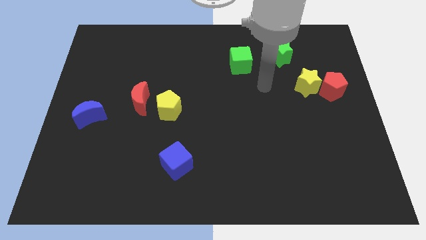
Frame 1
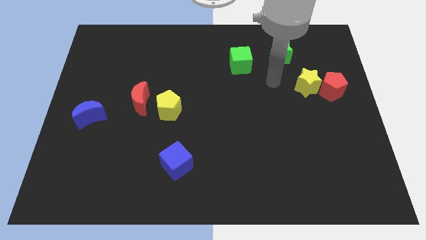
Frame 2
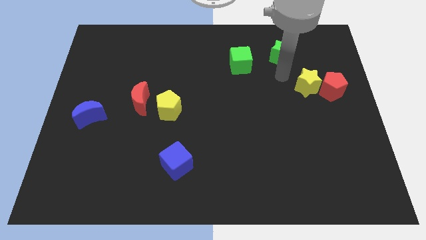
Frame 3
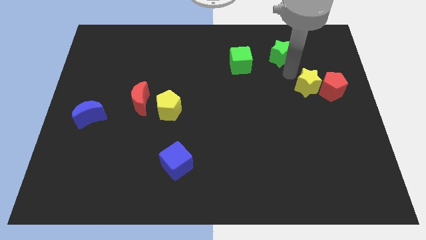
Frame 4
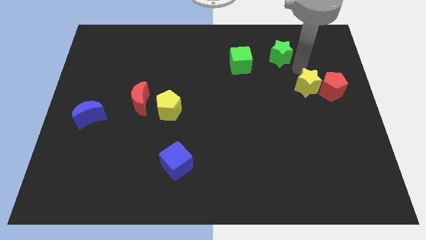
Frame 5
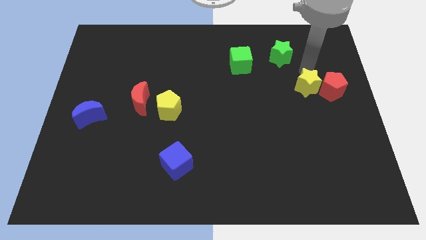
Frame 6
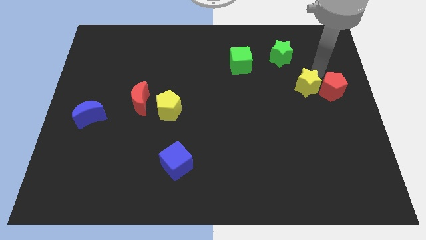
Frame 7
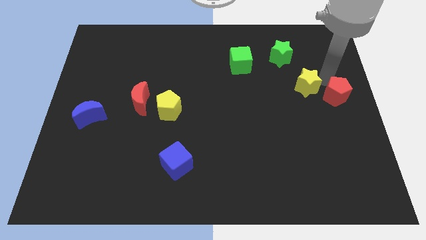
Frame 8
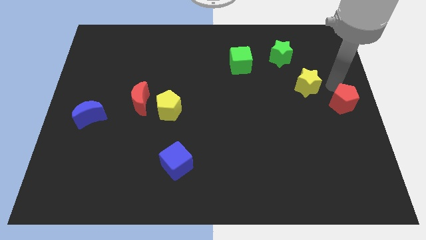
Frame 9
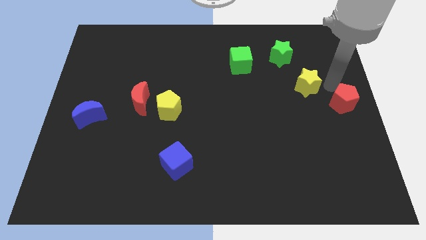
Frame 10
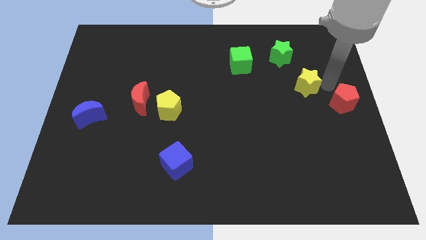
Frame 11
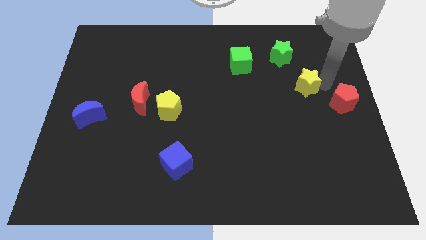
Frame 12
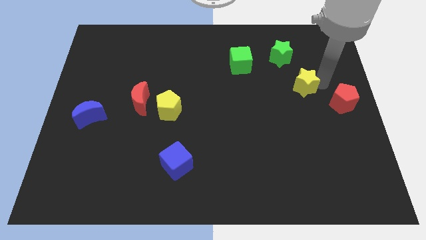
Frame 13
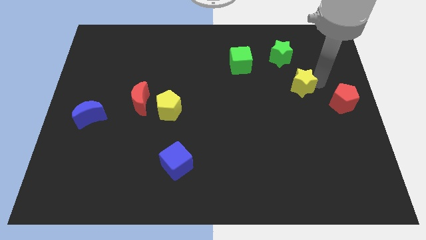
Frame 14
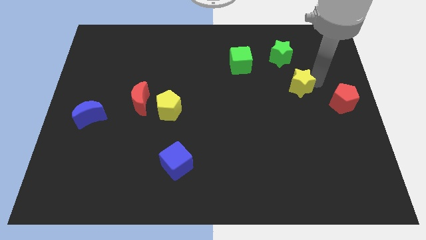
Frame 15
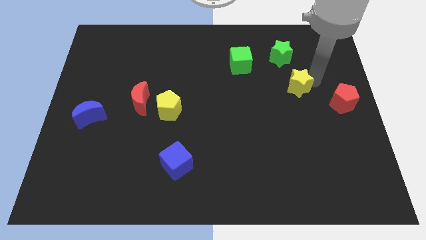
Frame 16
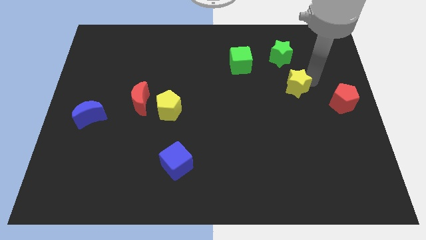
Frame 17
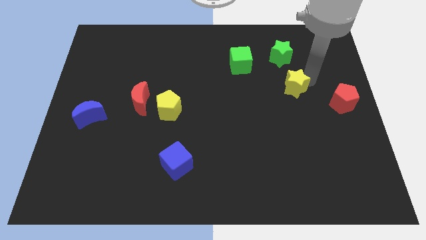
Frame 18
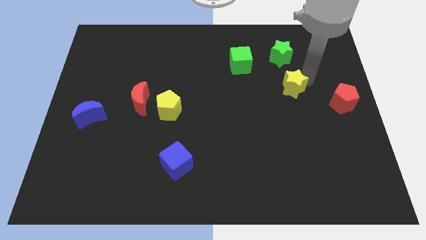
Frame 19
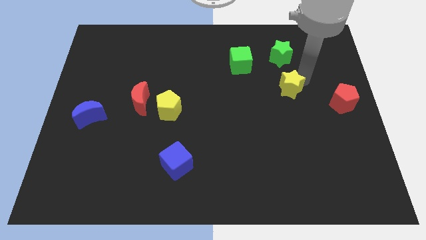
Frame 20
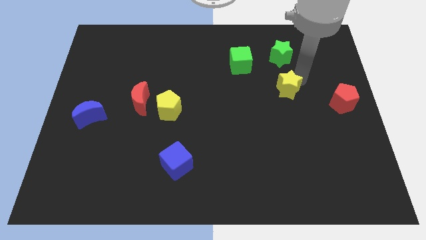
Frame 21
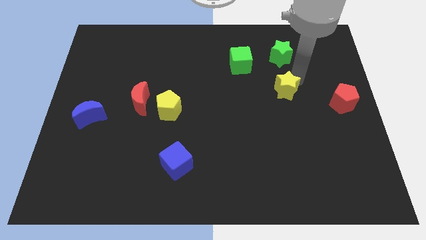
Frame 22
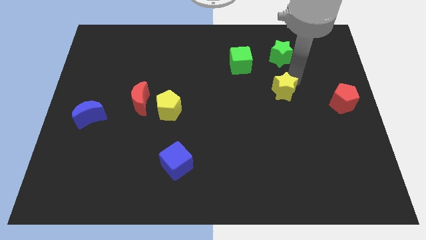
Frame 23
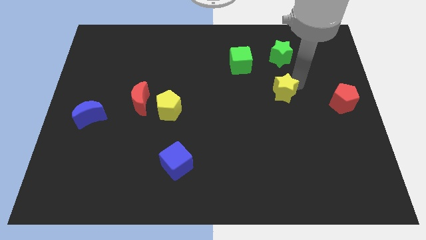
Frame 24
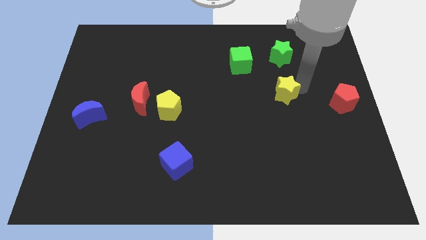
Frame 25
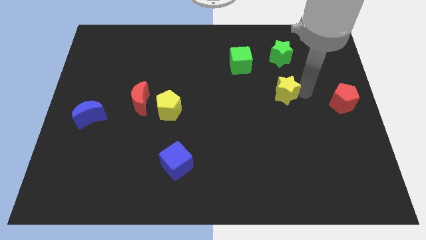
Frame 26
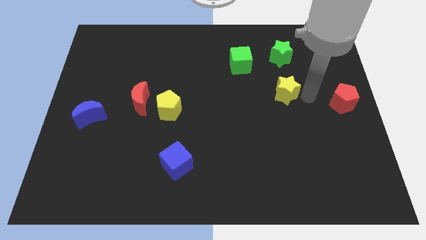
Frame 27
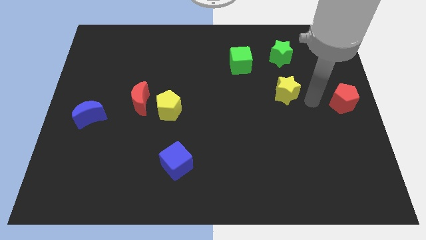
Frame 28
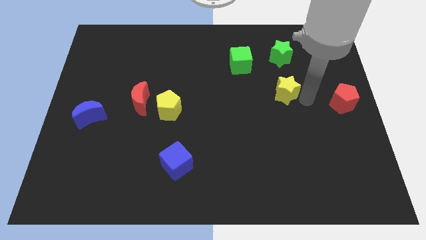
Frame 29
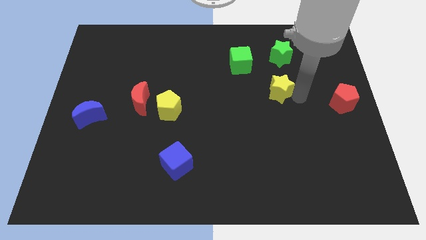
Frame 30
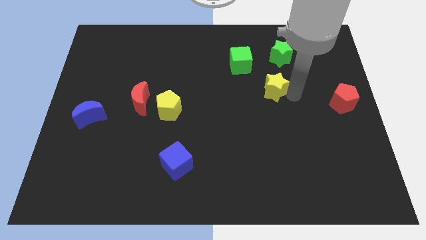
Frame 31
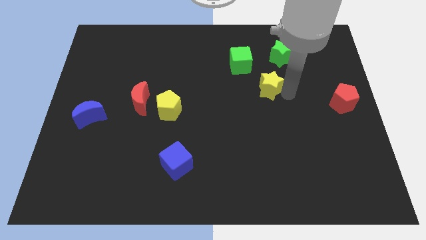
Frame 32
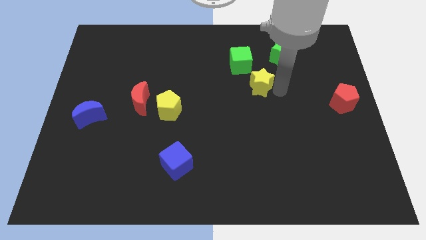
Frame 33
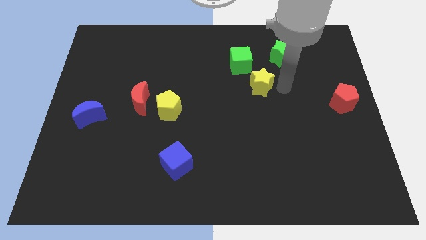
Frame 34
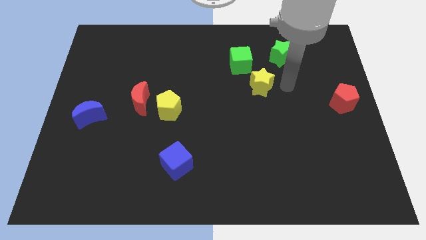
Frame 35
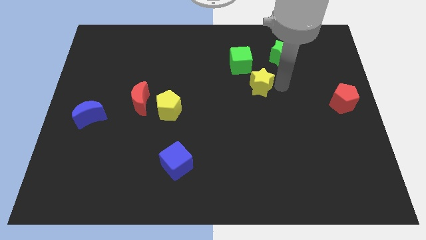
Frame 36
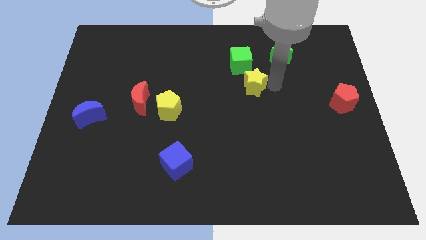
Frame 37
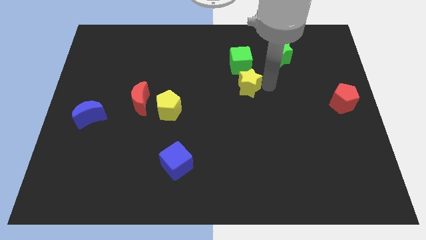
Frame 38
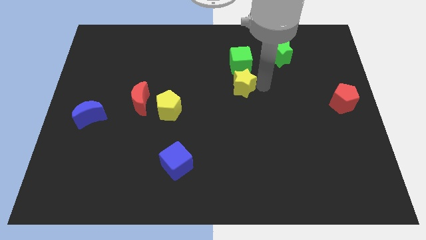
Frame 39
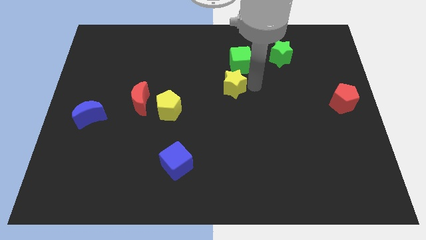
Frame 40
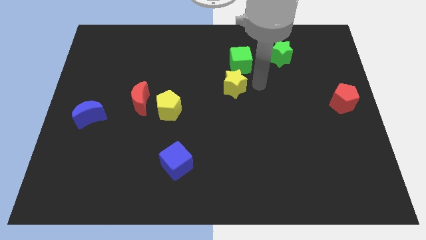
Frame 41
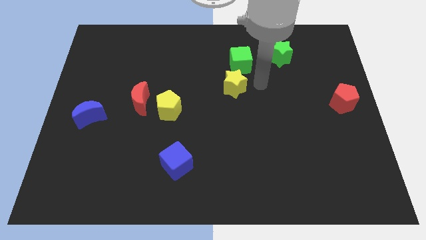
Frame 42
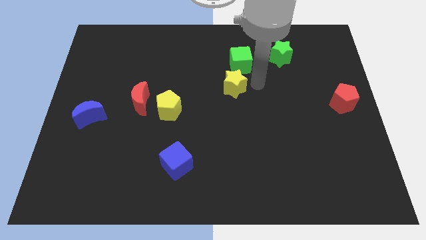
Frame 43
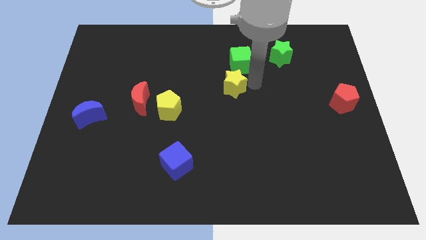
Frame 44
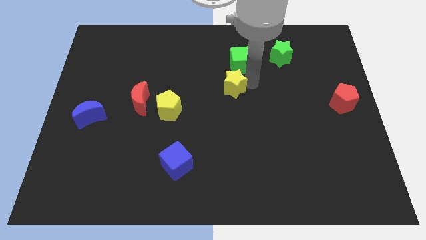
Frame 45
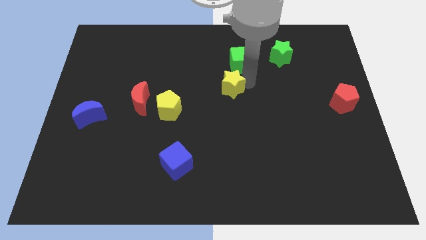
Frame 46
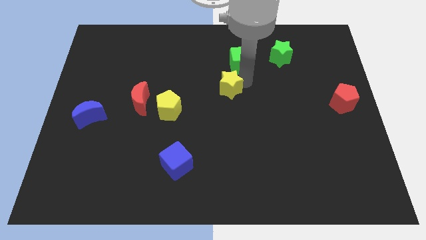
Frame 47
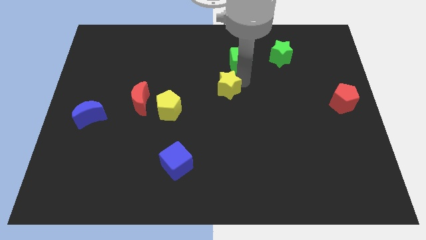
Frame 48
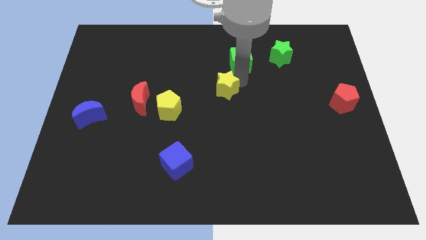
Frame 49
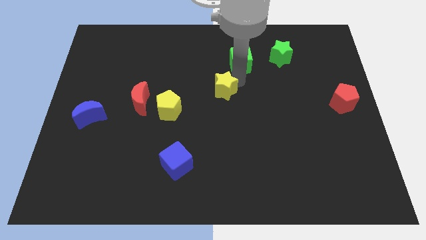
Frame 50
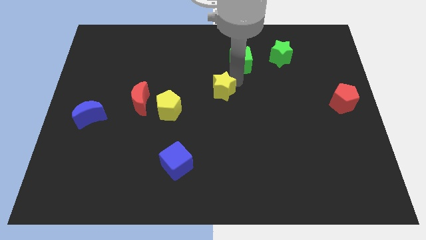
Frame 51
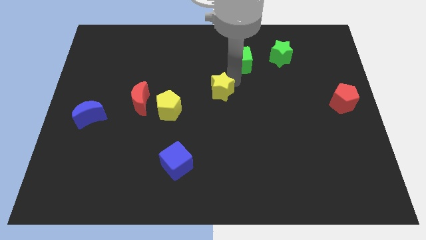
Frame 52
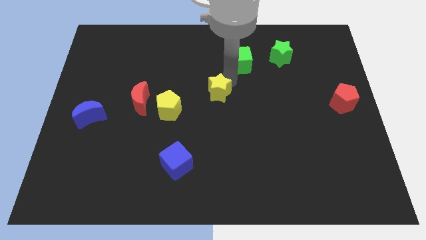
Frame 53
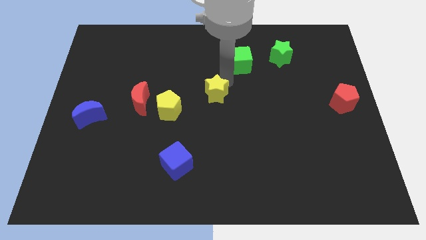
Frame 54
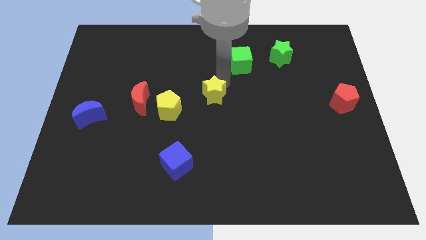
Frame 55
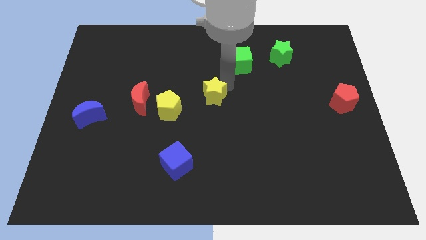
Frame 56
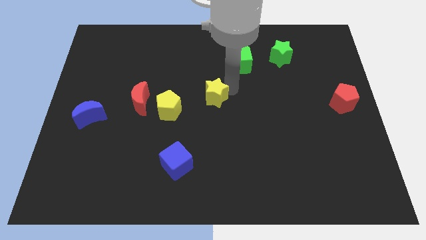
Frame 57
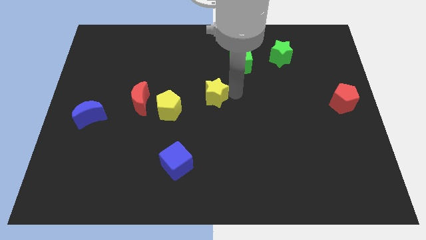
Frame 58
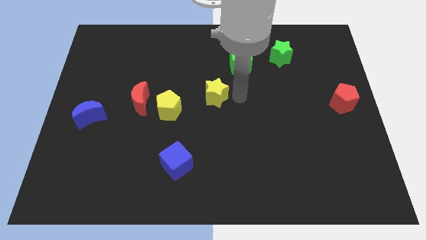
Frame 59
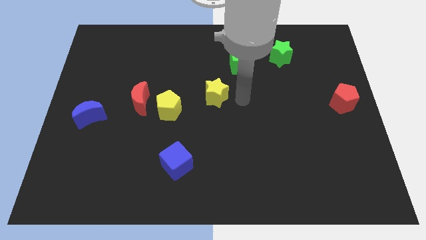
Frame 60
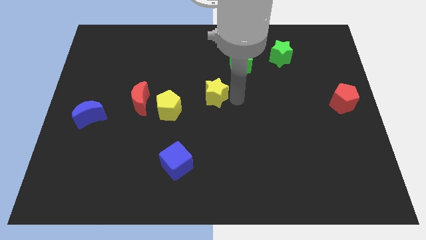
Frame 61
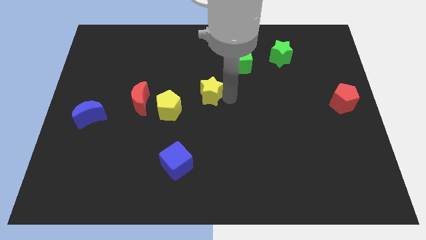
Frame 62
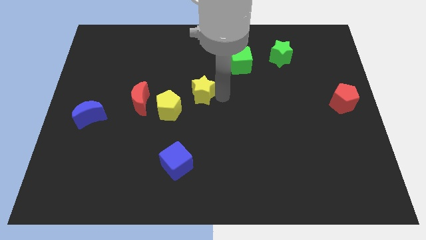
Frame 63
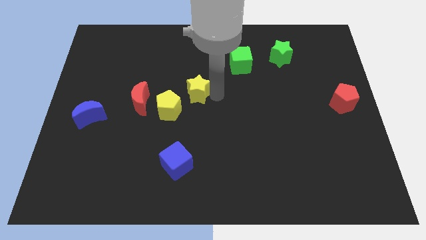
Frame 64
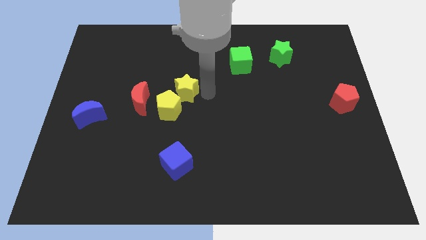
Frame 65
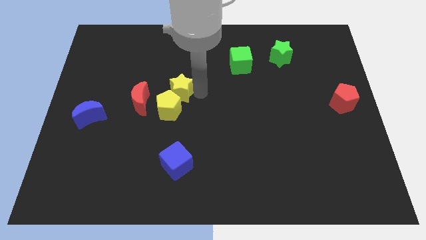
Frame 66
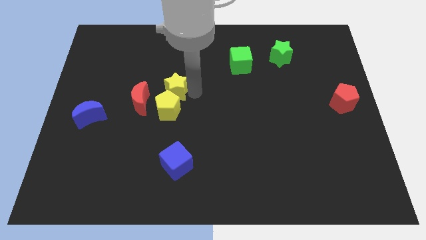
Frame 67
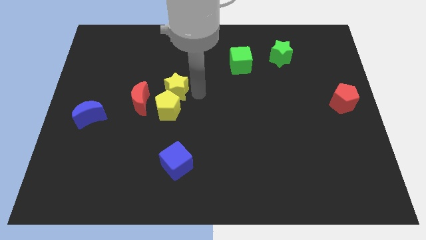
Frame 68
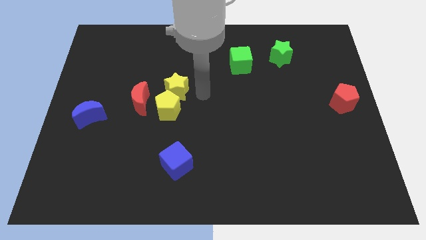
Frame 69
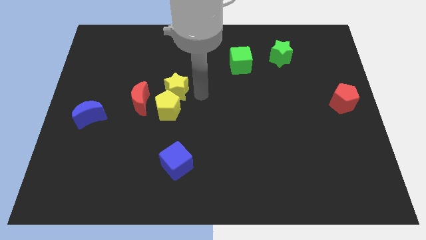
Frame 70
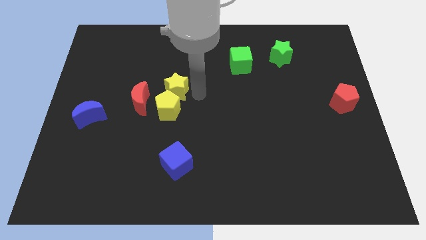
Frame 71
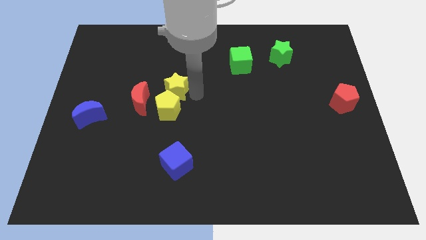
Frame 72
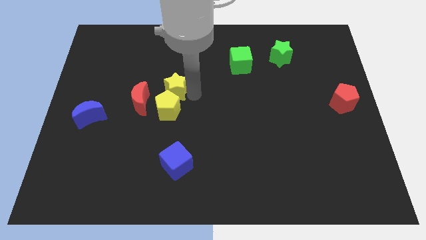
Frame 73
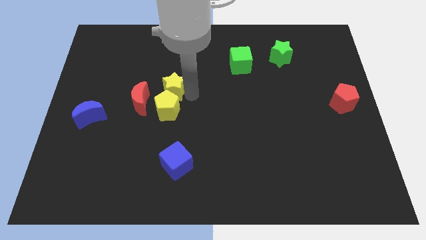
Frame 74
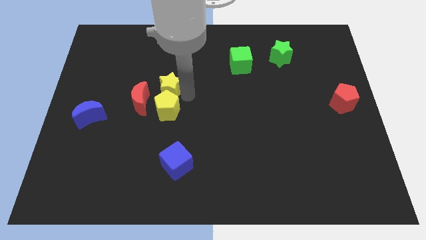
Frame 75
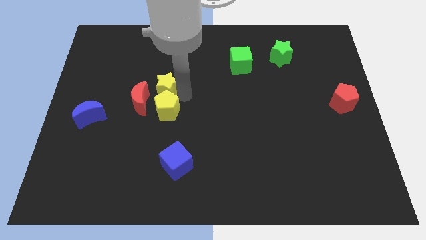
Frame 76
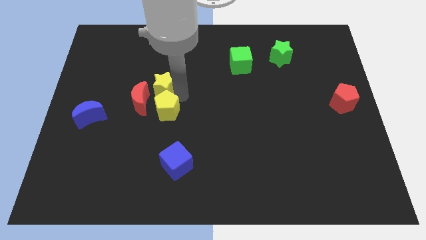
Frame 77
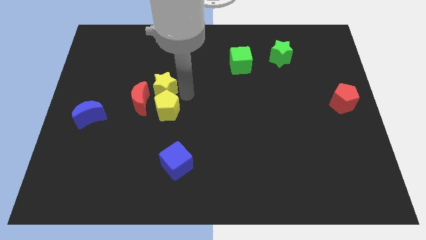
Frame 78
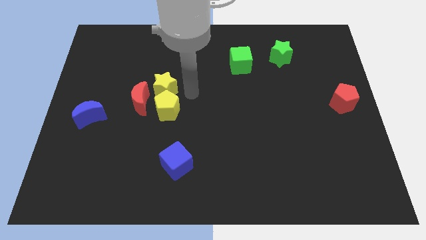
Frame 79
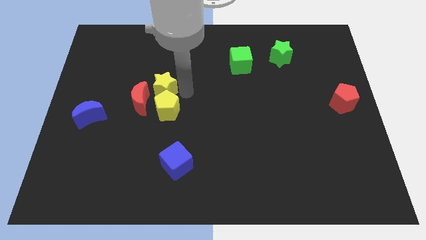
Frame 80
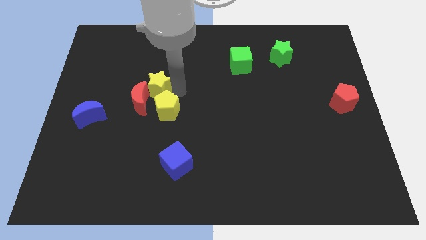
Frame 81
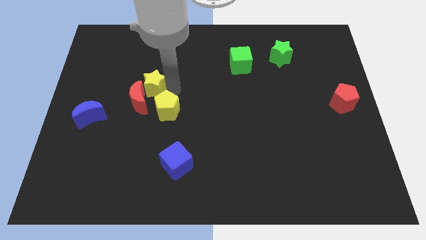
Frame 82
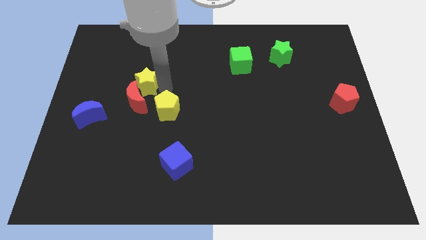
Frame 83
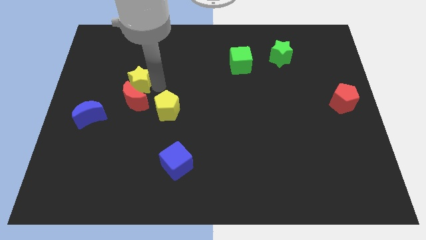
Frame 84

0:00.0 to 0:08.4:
slide the yellow star to the top left side of the red moon
